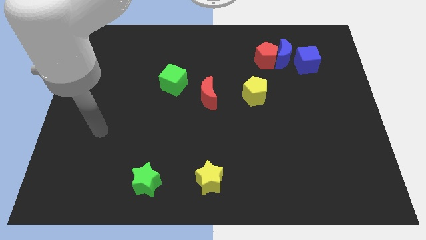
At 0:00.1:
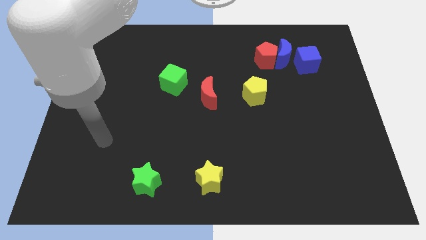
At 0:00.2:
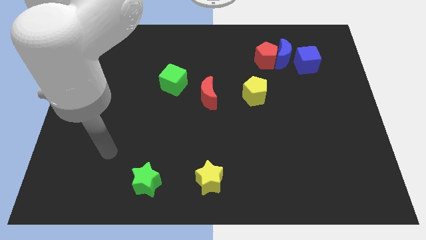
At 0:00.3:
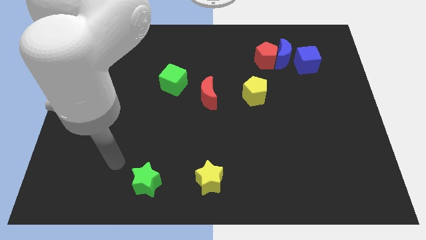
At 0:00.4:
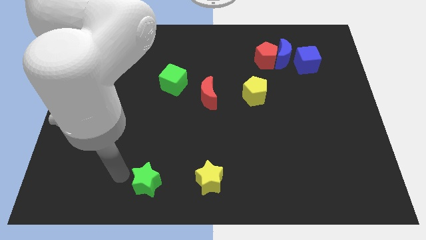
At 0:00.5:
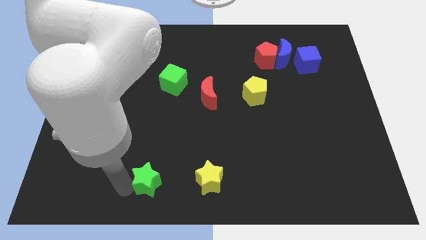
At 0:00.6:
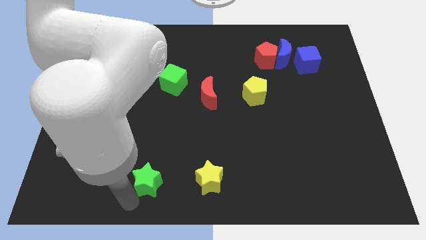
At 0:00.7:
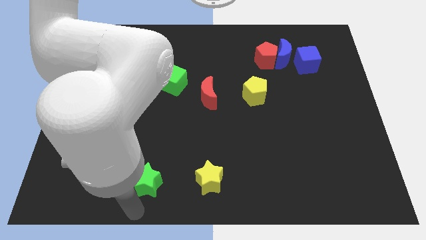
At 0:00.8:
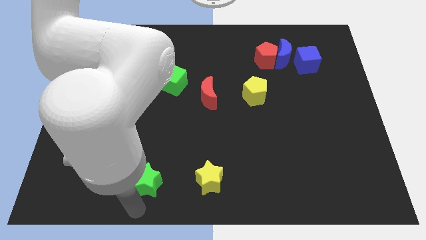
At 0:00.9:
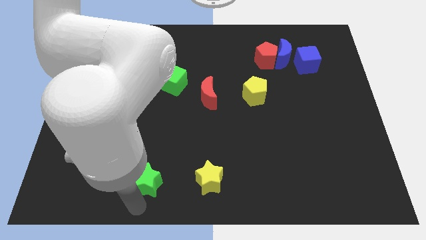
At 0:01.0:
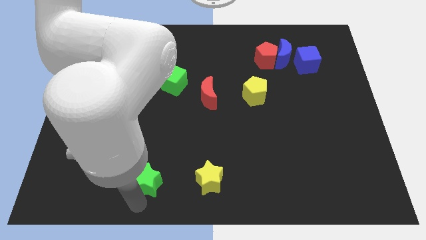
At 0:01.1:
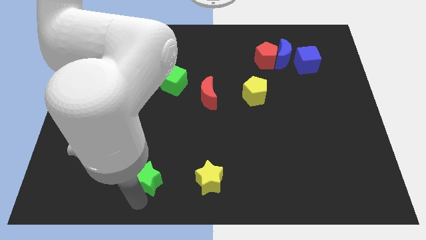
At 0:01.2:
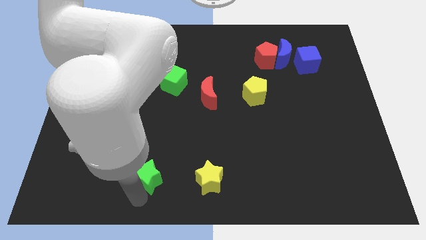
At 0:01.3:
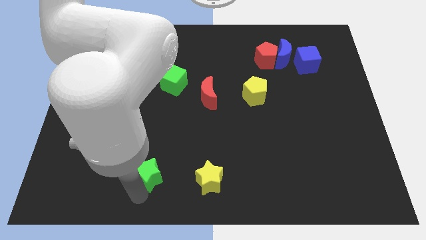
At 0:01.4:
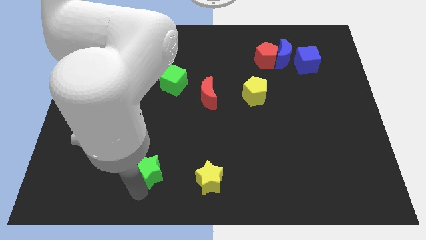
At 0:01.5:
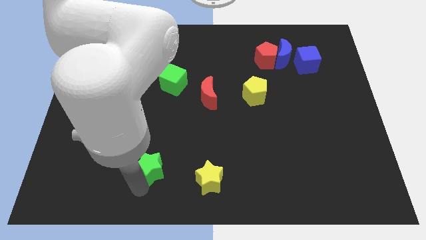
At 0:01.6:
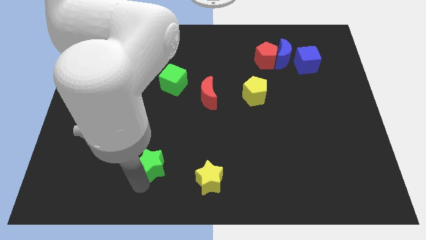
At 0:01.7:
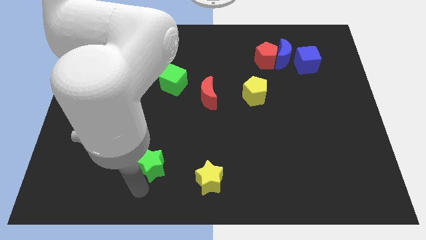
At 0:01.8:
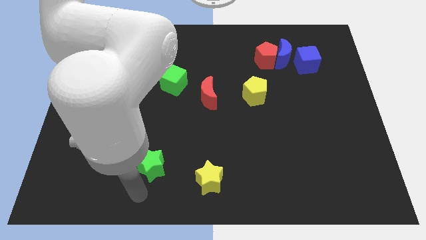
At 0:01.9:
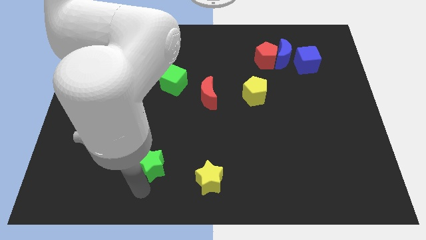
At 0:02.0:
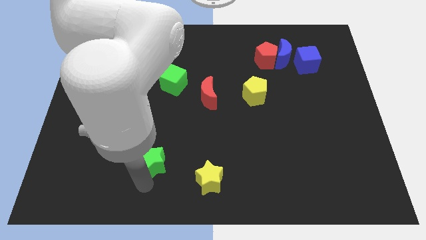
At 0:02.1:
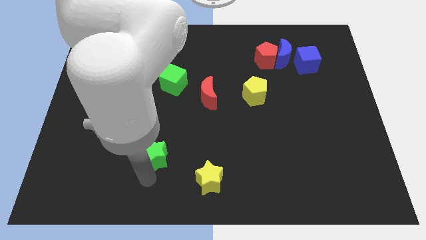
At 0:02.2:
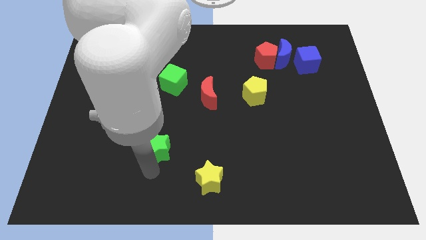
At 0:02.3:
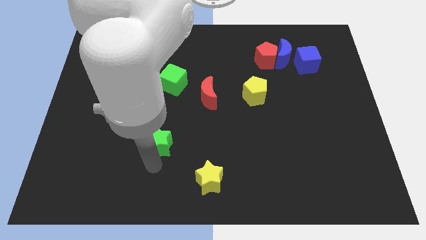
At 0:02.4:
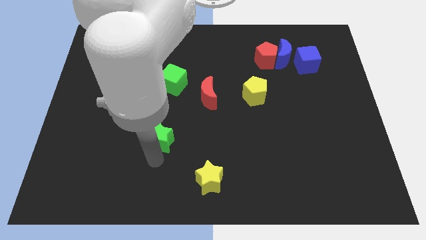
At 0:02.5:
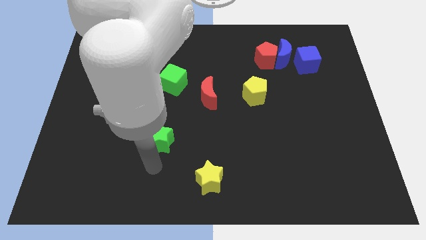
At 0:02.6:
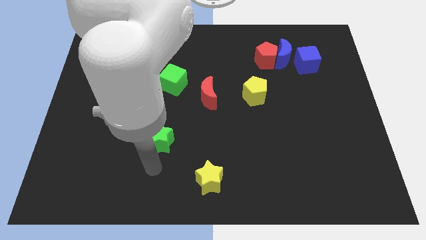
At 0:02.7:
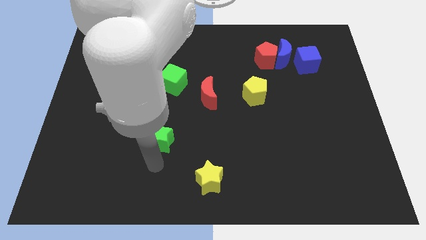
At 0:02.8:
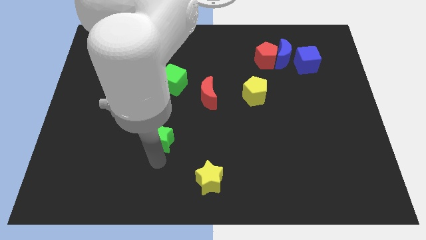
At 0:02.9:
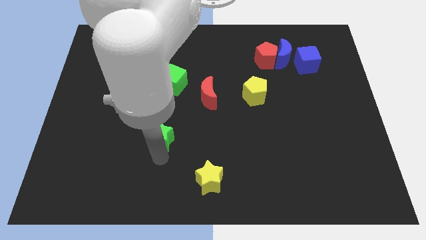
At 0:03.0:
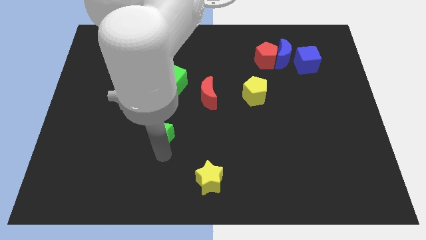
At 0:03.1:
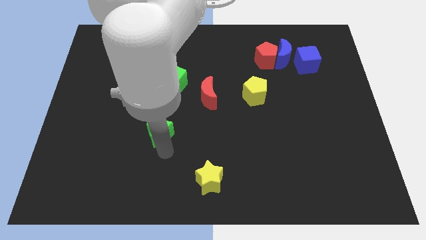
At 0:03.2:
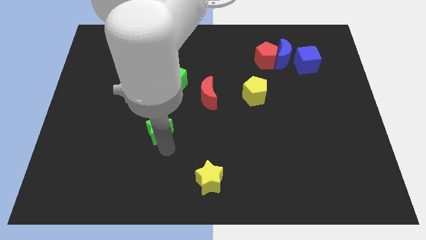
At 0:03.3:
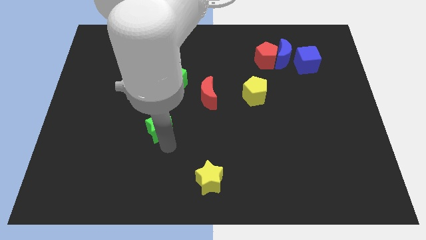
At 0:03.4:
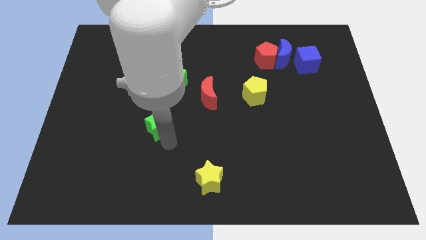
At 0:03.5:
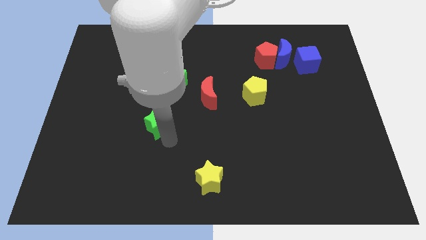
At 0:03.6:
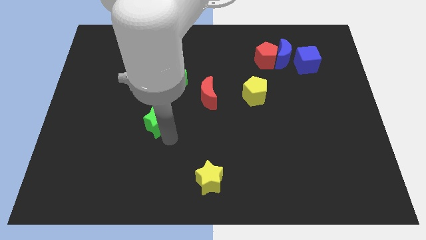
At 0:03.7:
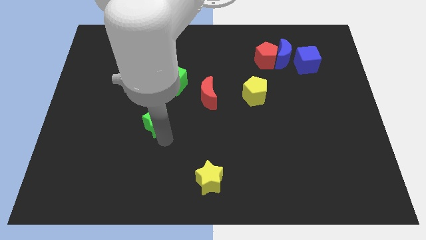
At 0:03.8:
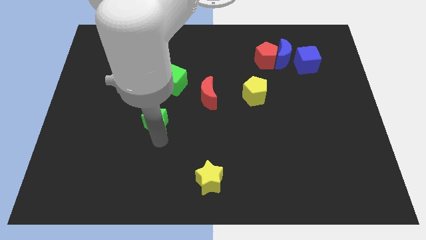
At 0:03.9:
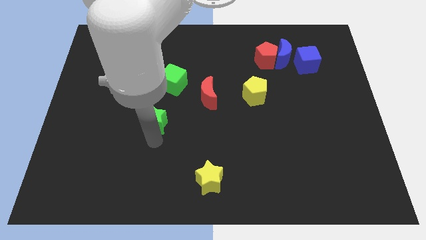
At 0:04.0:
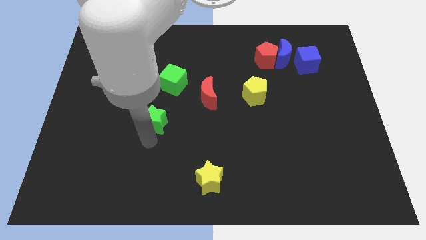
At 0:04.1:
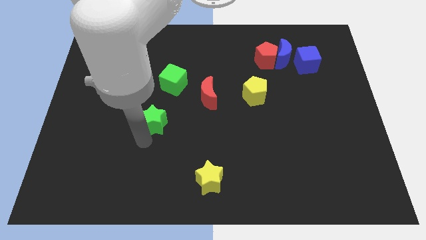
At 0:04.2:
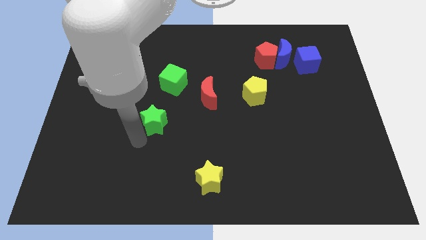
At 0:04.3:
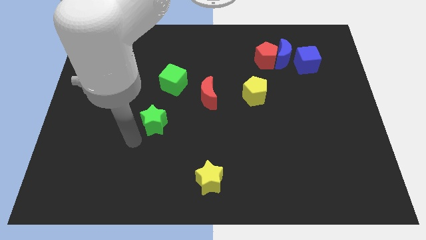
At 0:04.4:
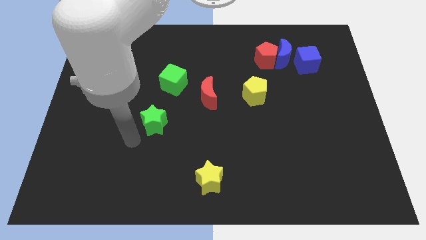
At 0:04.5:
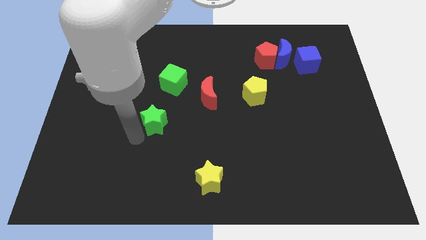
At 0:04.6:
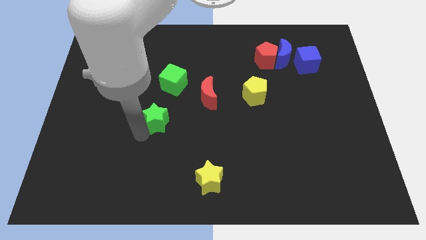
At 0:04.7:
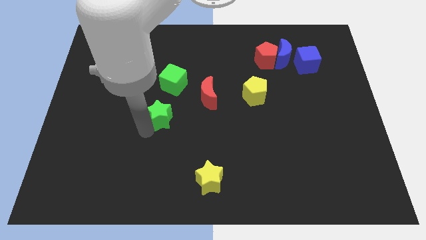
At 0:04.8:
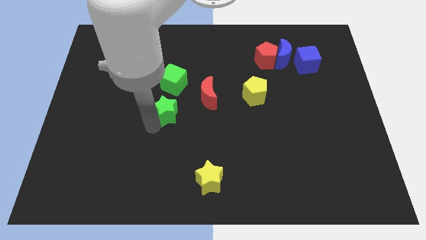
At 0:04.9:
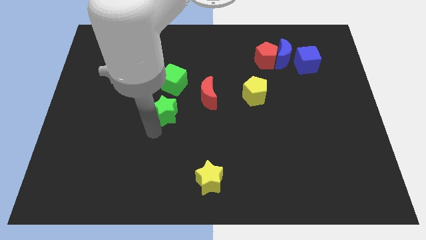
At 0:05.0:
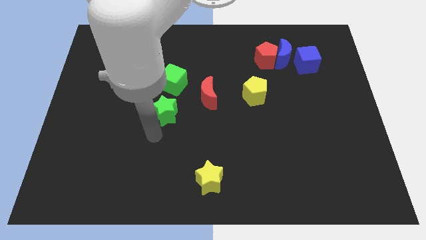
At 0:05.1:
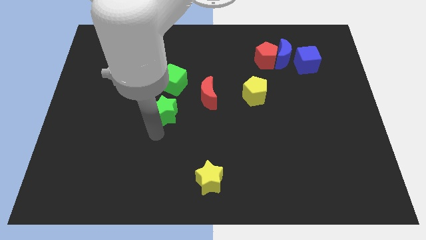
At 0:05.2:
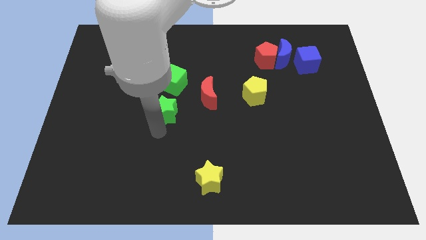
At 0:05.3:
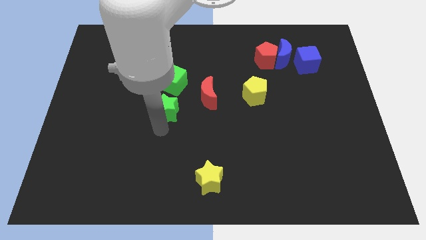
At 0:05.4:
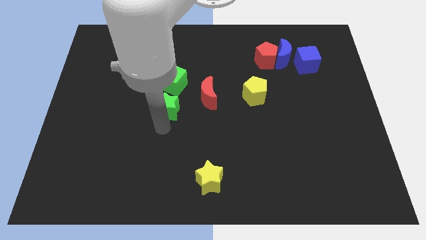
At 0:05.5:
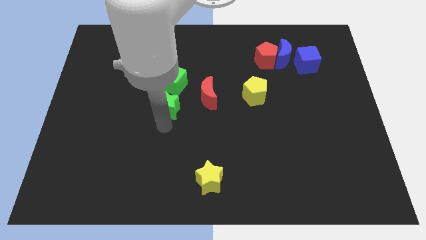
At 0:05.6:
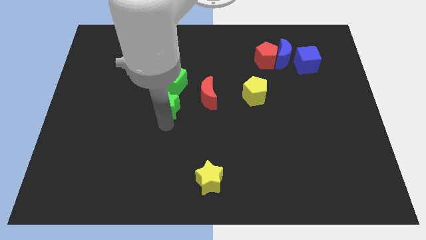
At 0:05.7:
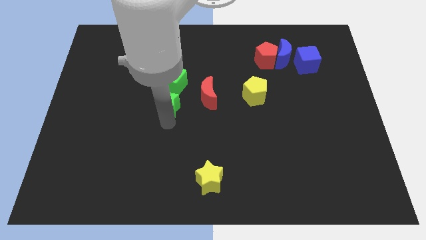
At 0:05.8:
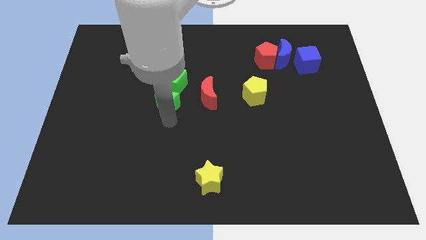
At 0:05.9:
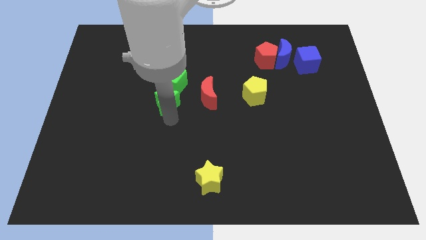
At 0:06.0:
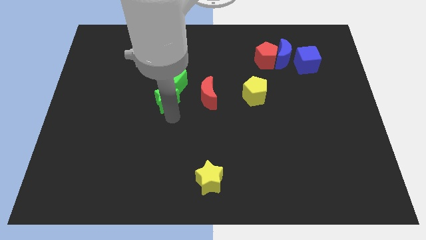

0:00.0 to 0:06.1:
move the green star to the green cube

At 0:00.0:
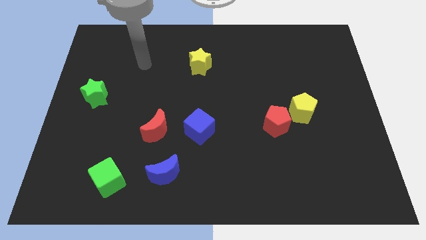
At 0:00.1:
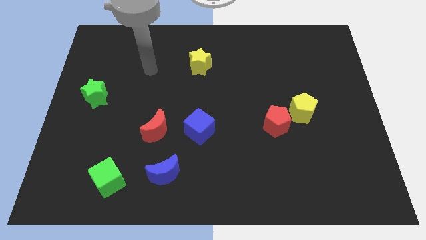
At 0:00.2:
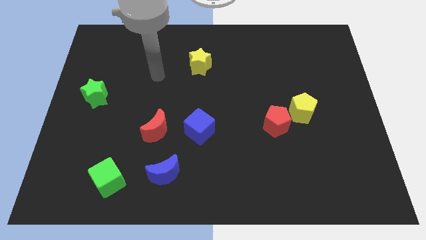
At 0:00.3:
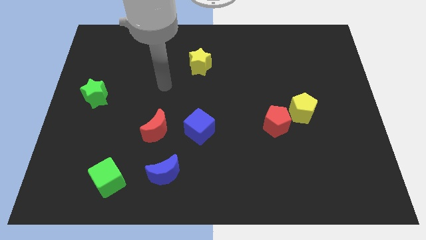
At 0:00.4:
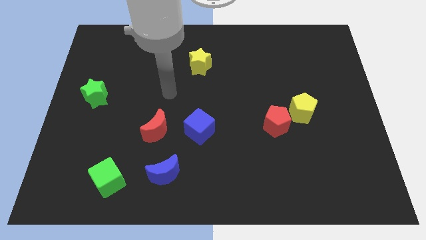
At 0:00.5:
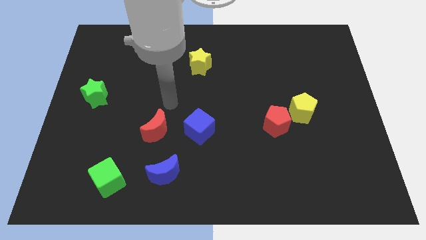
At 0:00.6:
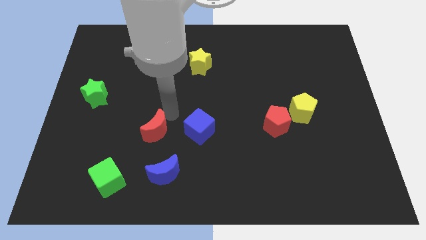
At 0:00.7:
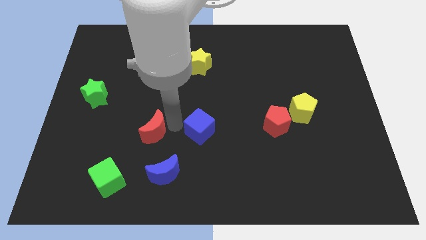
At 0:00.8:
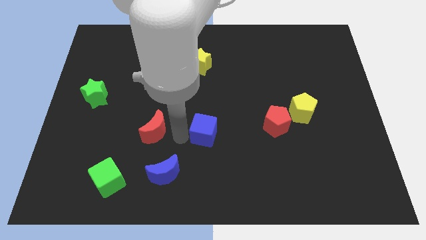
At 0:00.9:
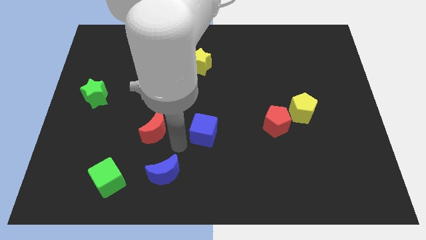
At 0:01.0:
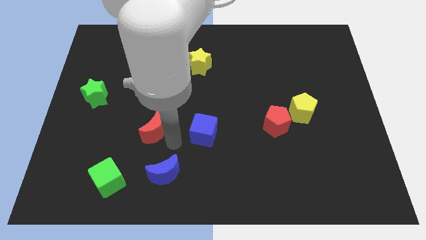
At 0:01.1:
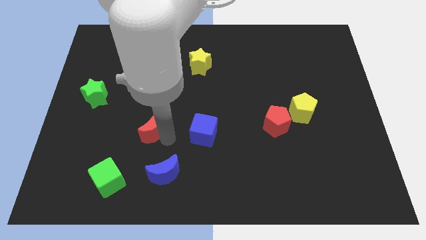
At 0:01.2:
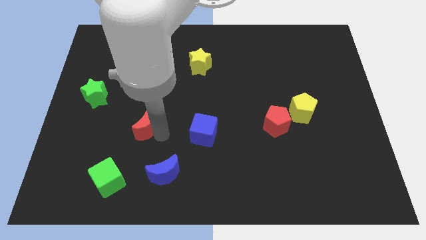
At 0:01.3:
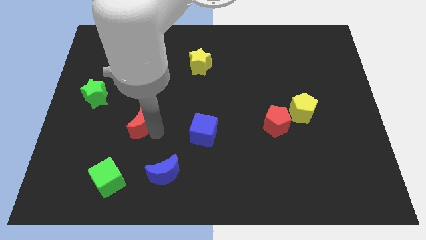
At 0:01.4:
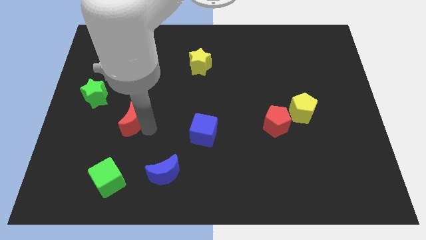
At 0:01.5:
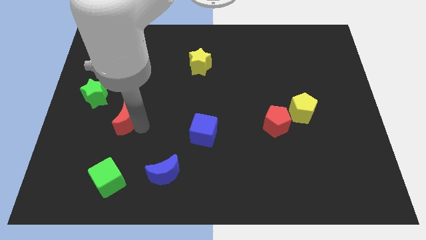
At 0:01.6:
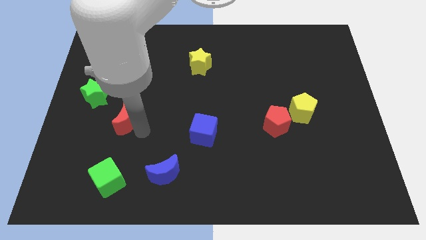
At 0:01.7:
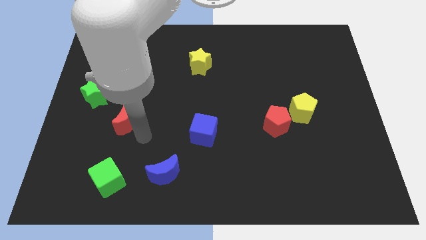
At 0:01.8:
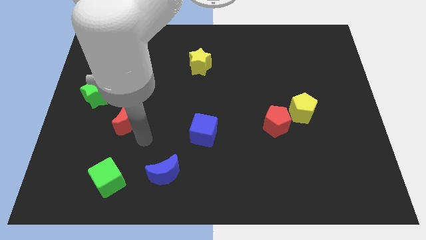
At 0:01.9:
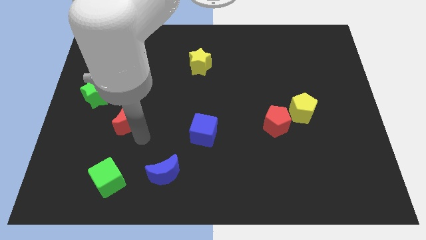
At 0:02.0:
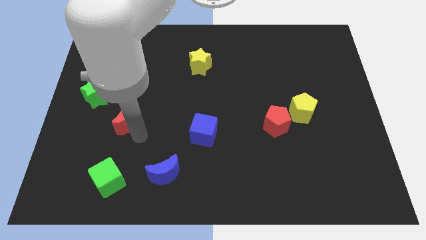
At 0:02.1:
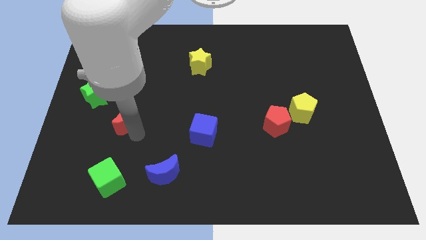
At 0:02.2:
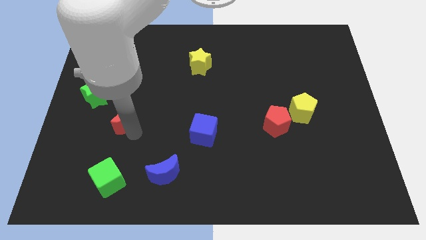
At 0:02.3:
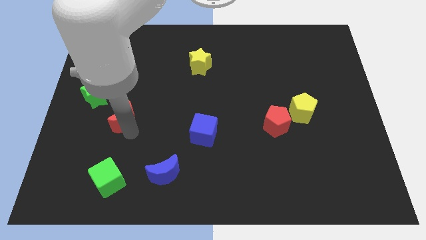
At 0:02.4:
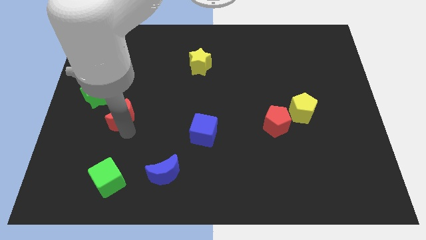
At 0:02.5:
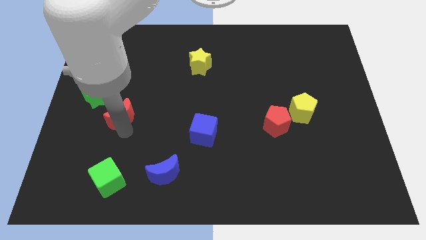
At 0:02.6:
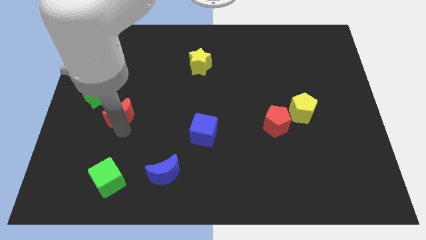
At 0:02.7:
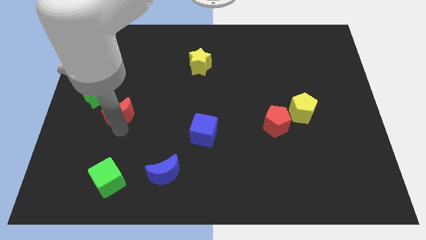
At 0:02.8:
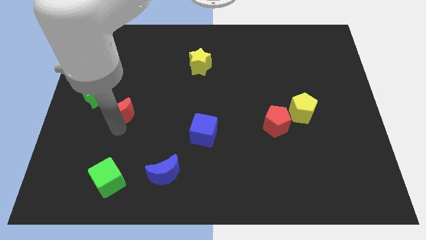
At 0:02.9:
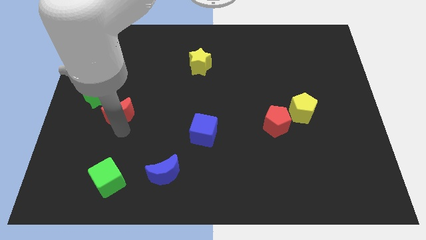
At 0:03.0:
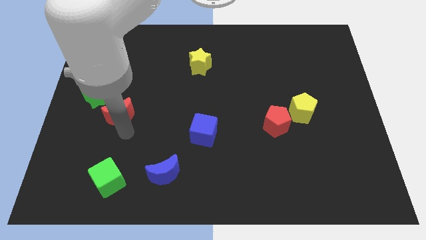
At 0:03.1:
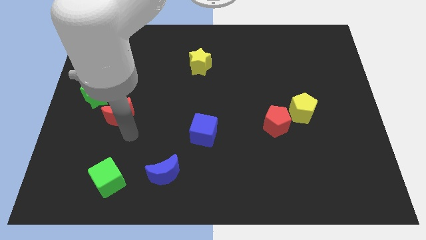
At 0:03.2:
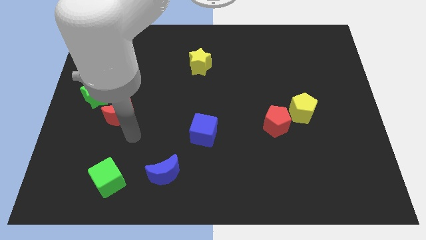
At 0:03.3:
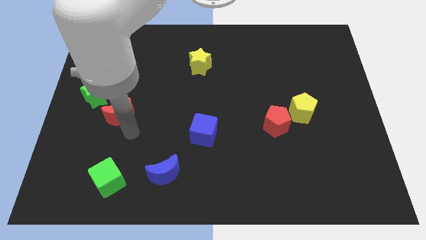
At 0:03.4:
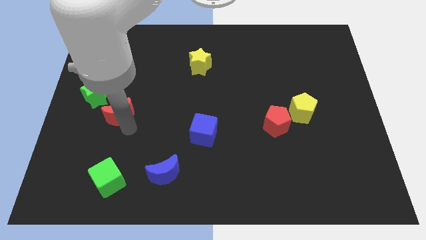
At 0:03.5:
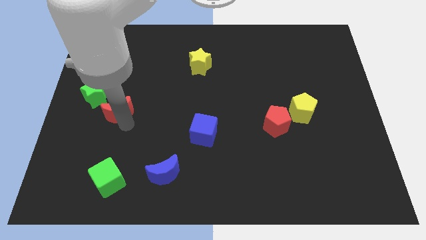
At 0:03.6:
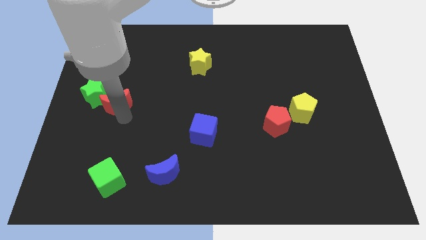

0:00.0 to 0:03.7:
move the red moon next to the green star
